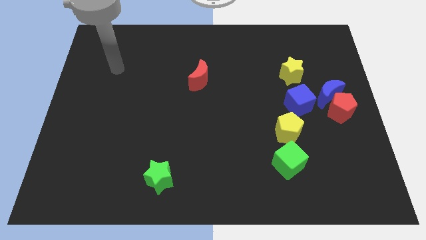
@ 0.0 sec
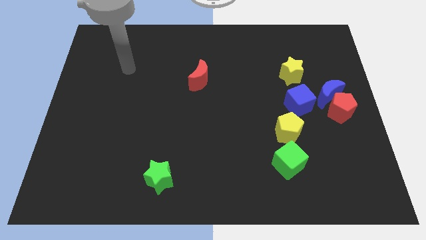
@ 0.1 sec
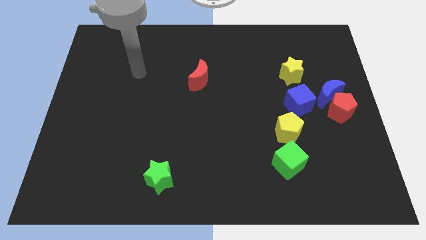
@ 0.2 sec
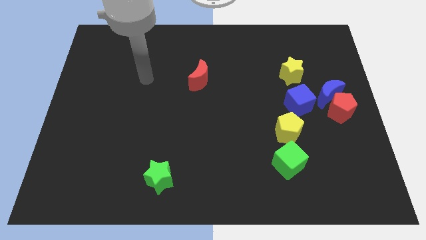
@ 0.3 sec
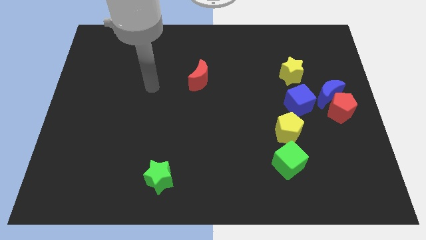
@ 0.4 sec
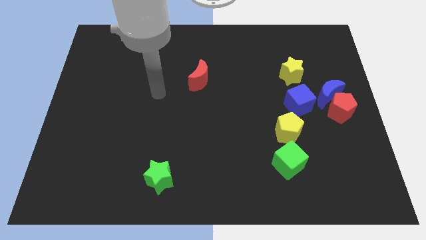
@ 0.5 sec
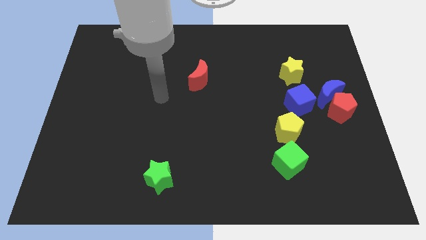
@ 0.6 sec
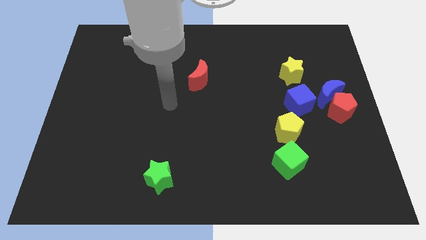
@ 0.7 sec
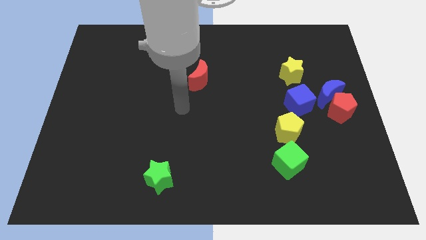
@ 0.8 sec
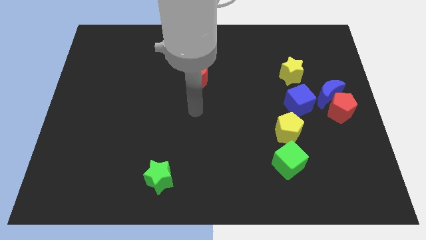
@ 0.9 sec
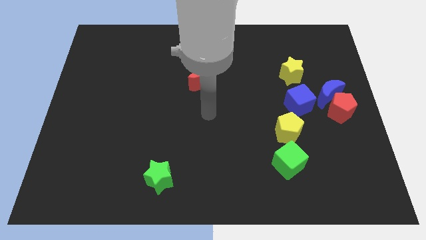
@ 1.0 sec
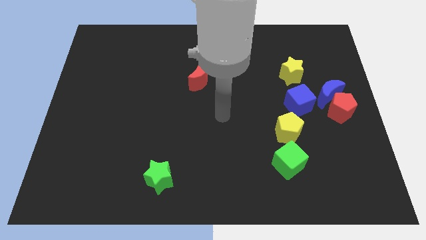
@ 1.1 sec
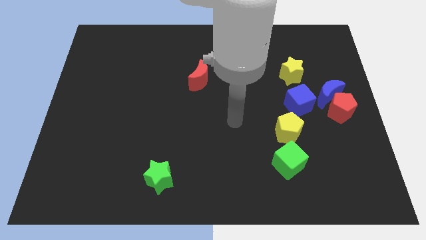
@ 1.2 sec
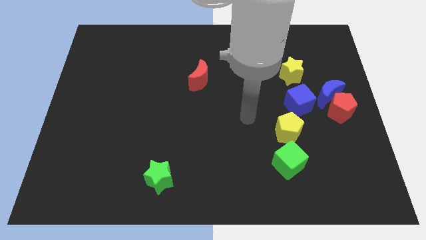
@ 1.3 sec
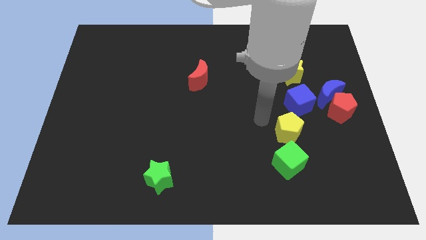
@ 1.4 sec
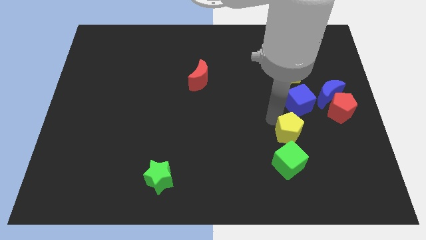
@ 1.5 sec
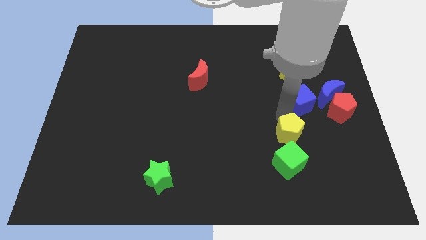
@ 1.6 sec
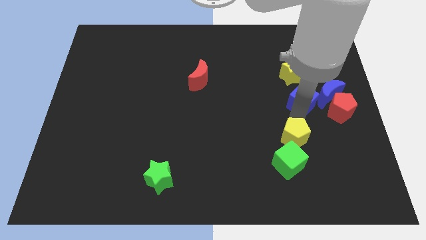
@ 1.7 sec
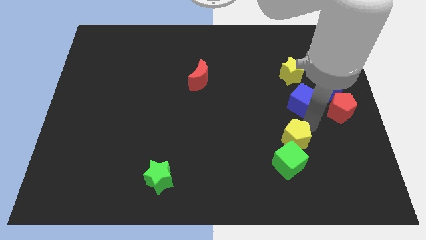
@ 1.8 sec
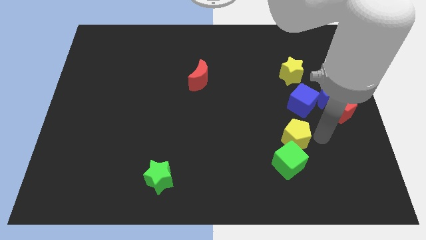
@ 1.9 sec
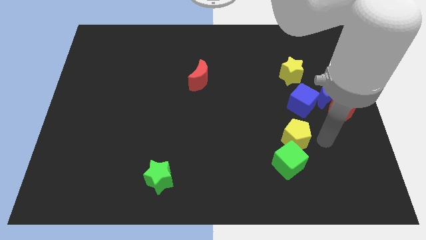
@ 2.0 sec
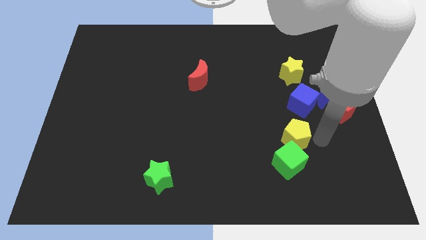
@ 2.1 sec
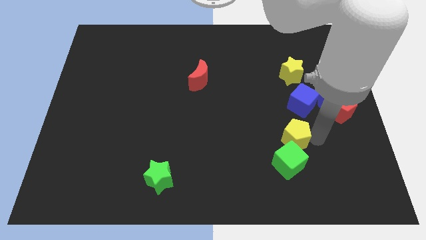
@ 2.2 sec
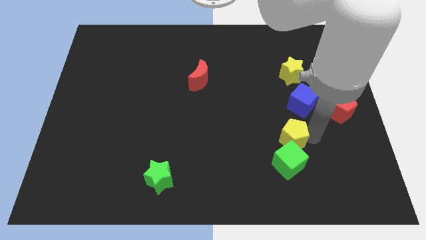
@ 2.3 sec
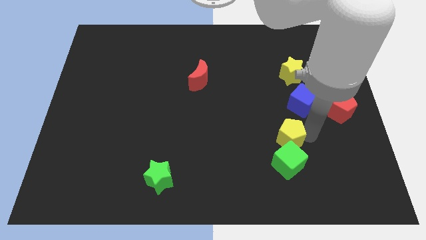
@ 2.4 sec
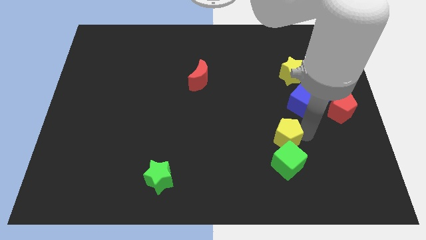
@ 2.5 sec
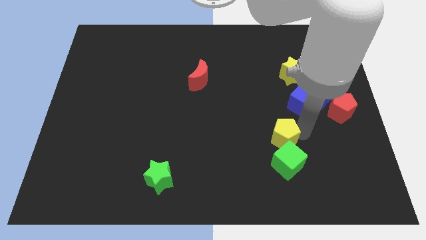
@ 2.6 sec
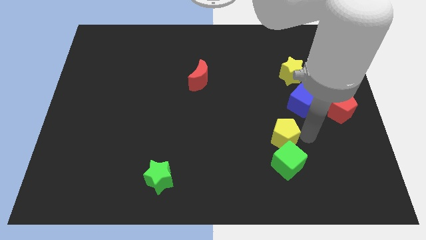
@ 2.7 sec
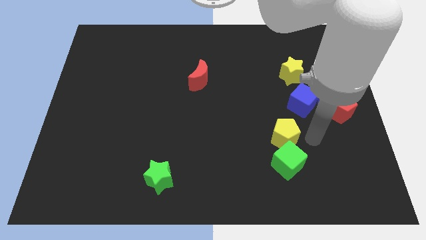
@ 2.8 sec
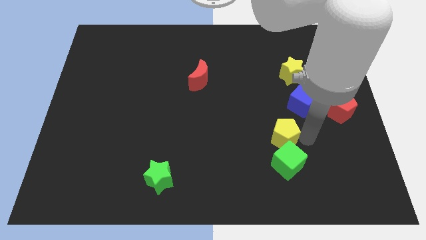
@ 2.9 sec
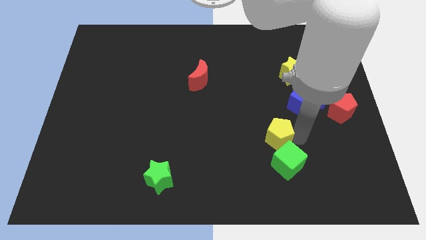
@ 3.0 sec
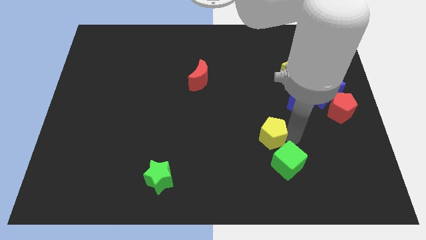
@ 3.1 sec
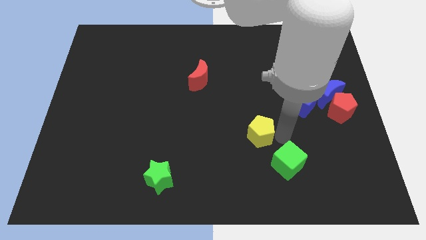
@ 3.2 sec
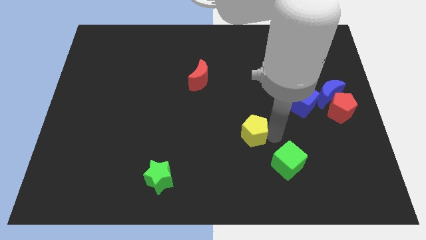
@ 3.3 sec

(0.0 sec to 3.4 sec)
push the yellow pentagon somewhat left

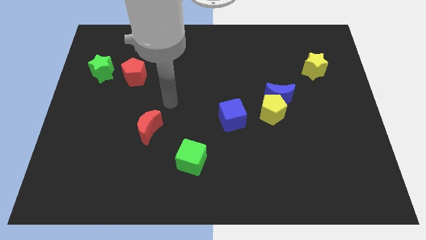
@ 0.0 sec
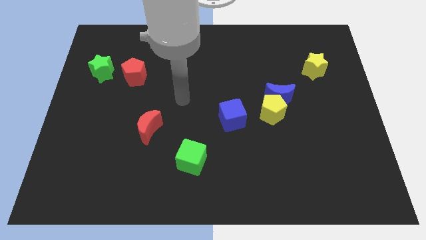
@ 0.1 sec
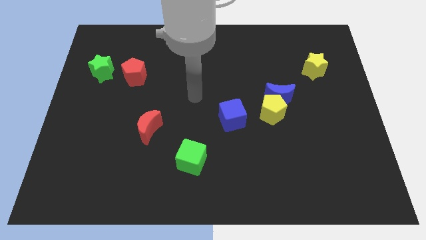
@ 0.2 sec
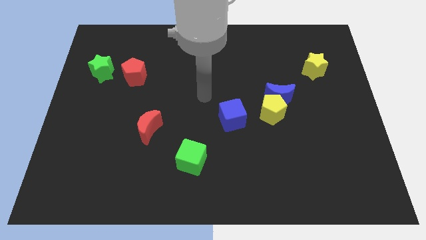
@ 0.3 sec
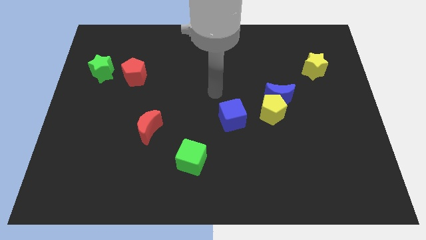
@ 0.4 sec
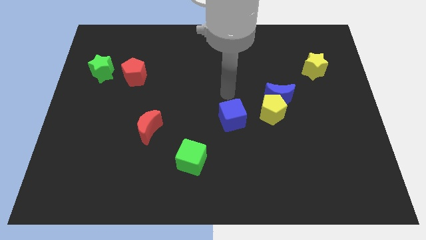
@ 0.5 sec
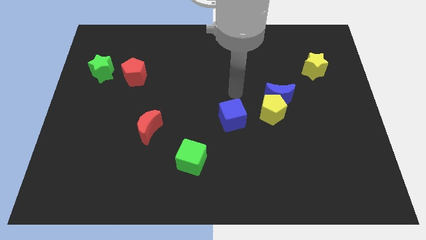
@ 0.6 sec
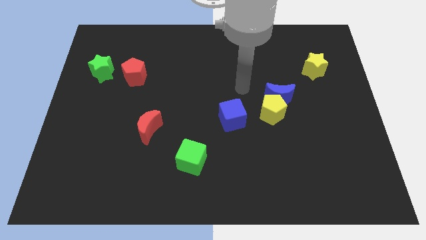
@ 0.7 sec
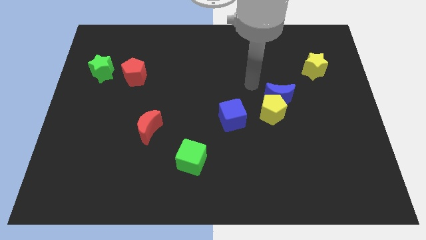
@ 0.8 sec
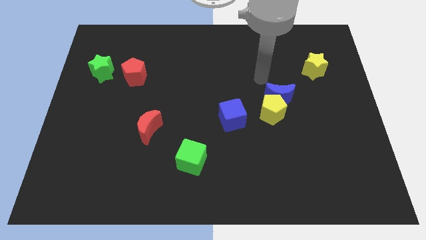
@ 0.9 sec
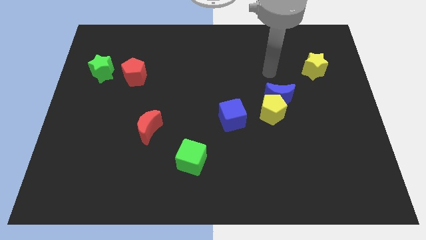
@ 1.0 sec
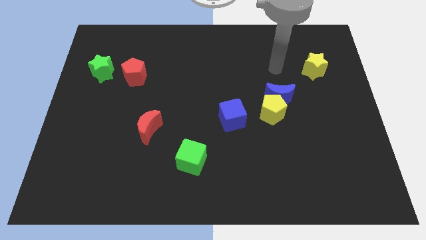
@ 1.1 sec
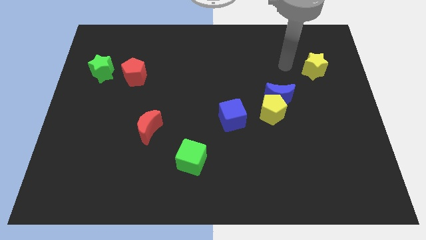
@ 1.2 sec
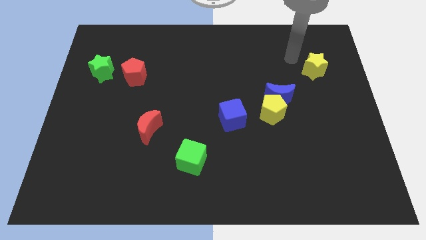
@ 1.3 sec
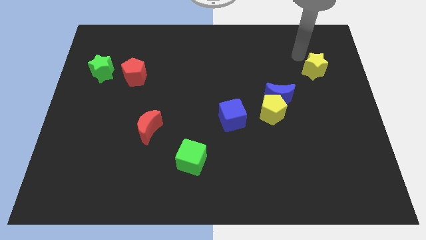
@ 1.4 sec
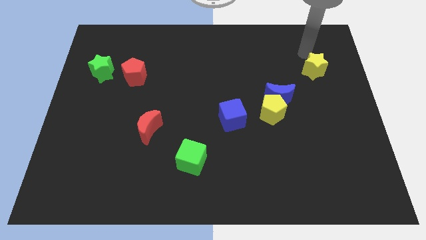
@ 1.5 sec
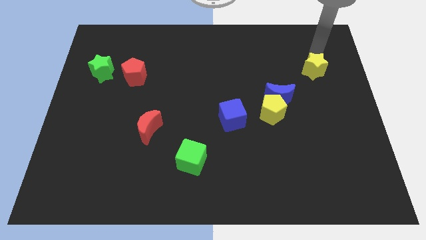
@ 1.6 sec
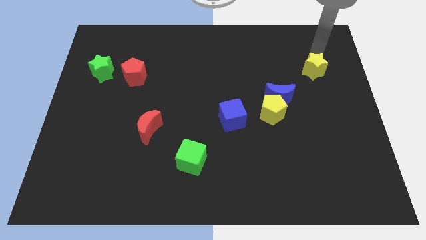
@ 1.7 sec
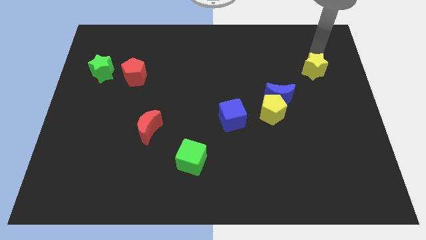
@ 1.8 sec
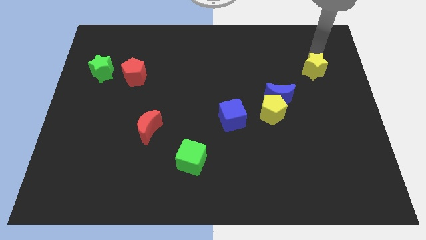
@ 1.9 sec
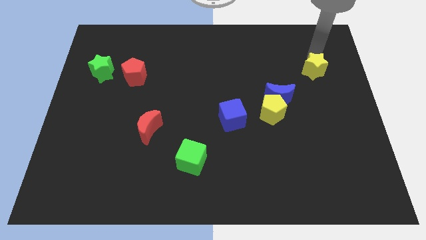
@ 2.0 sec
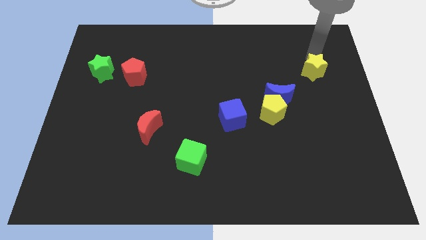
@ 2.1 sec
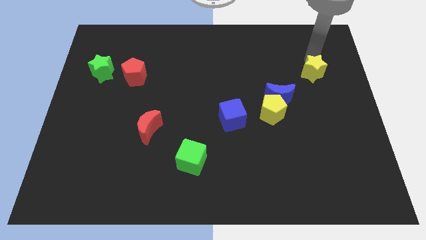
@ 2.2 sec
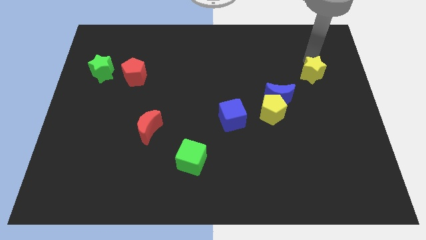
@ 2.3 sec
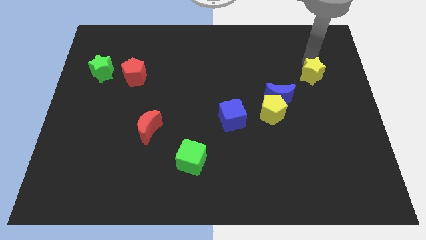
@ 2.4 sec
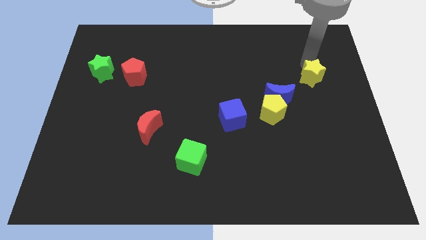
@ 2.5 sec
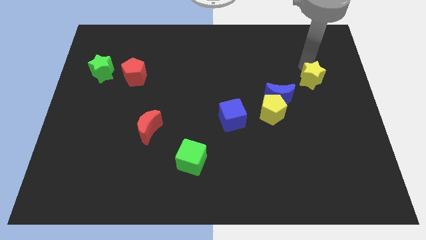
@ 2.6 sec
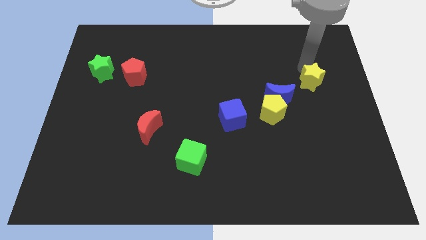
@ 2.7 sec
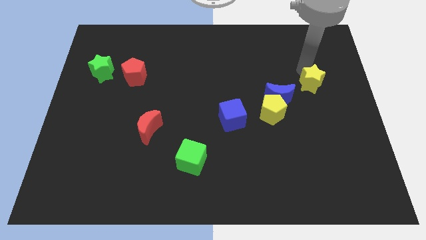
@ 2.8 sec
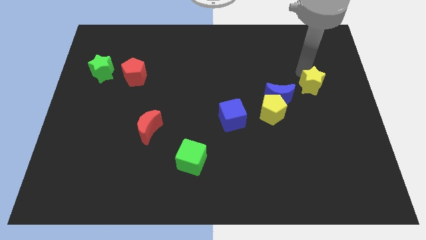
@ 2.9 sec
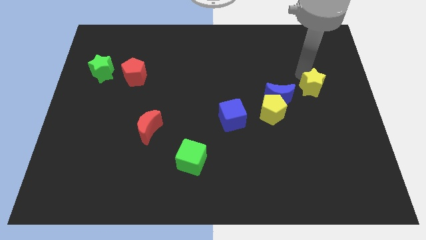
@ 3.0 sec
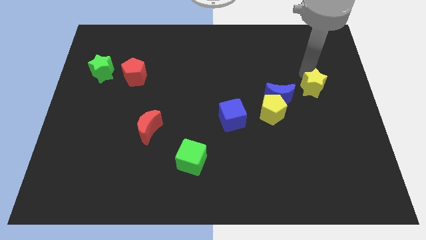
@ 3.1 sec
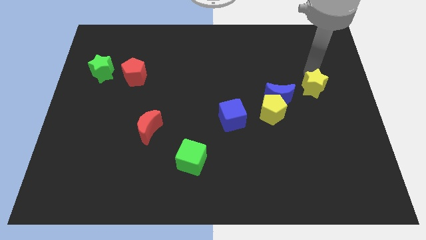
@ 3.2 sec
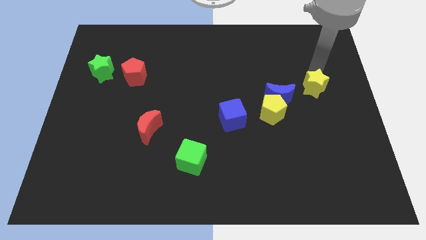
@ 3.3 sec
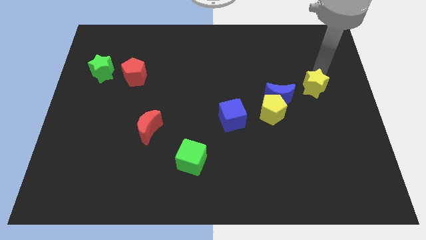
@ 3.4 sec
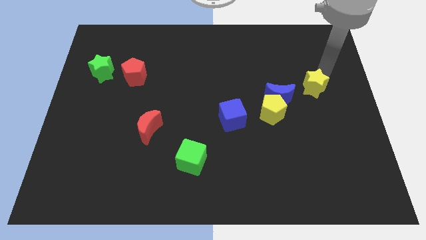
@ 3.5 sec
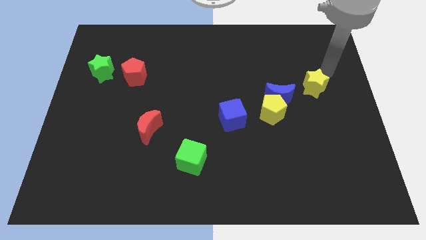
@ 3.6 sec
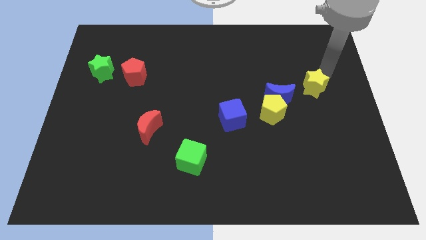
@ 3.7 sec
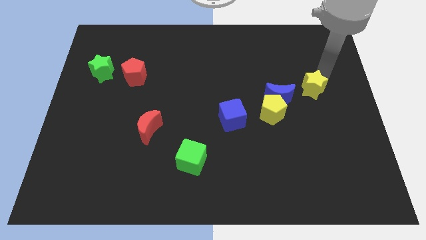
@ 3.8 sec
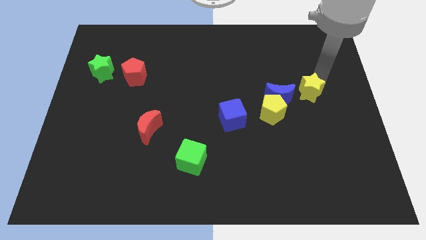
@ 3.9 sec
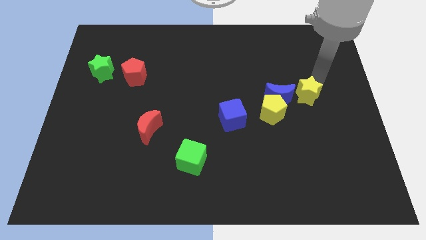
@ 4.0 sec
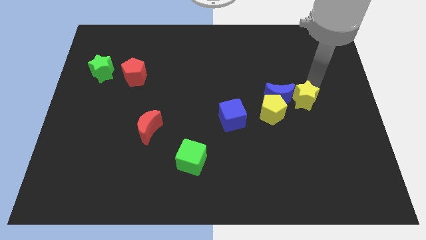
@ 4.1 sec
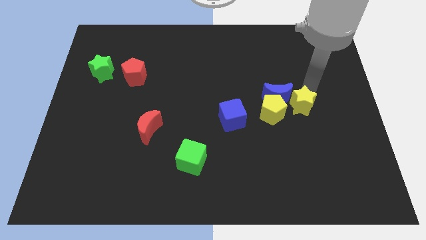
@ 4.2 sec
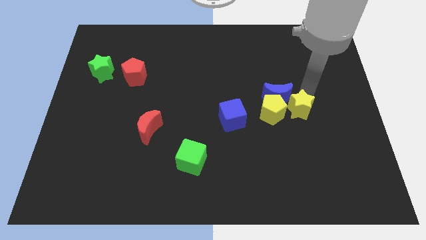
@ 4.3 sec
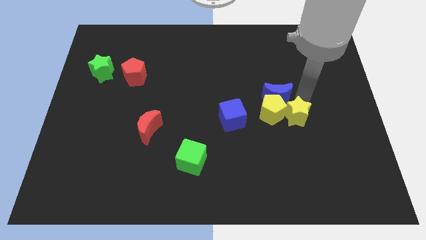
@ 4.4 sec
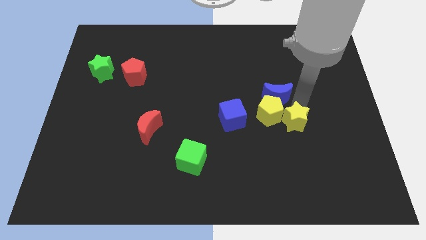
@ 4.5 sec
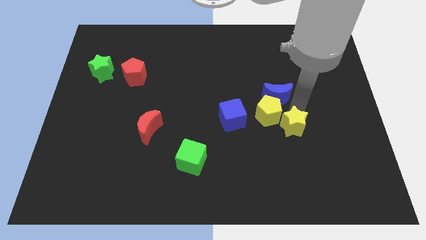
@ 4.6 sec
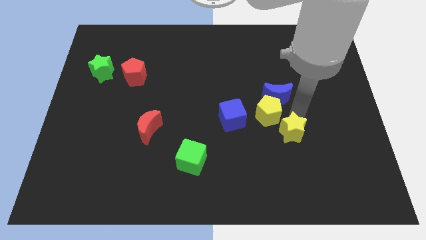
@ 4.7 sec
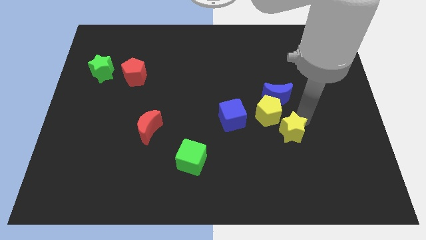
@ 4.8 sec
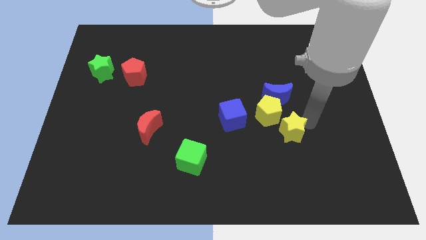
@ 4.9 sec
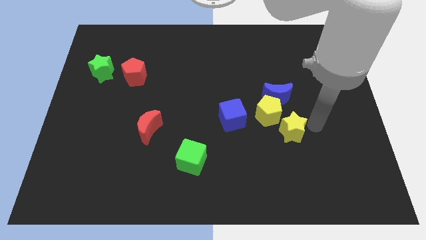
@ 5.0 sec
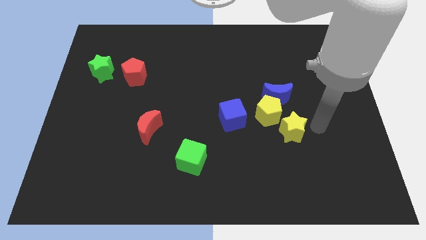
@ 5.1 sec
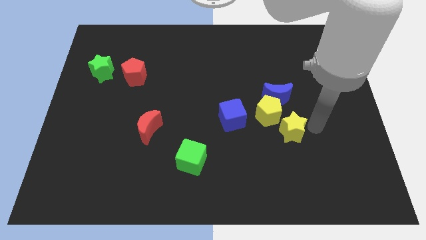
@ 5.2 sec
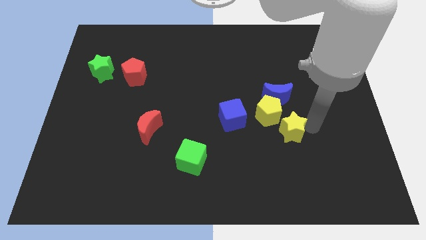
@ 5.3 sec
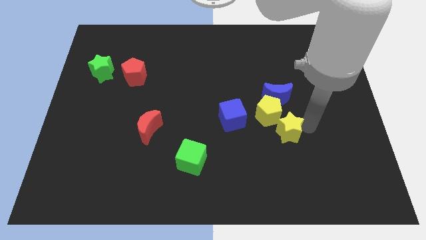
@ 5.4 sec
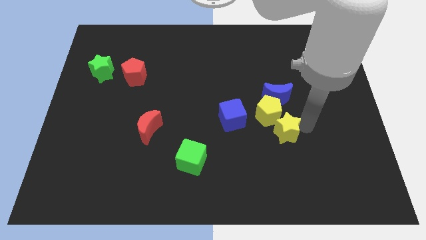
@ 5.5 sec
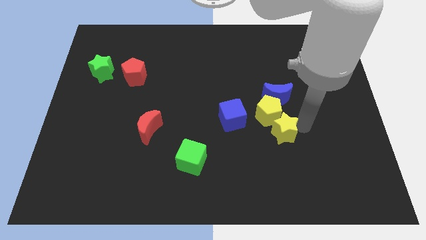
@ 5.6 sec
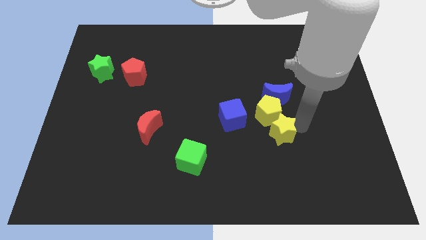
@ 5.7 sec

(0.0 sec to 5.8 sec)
slide the yellow star down and then left
